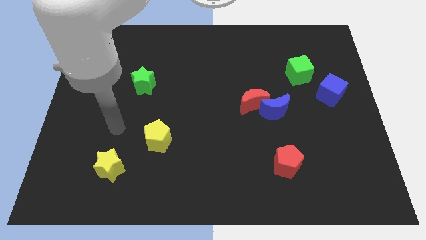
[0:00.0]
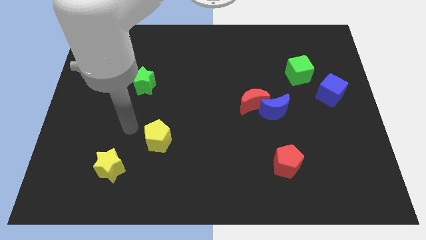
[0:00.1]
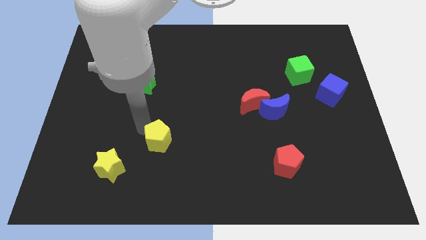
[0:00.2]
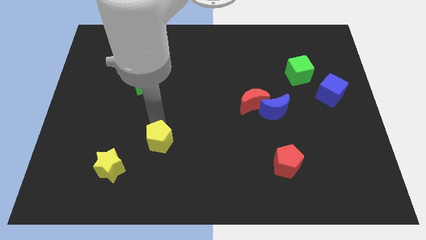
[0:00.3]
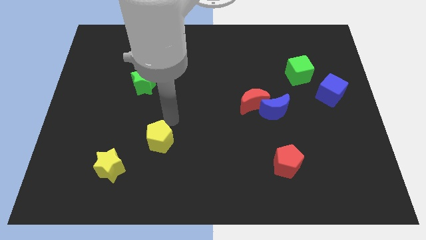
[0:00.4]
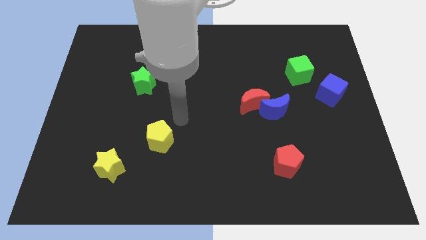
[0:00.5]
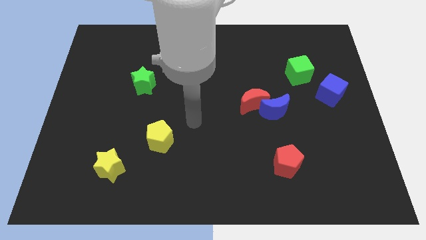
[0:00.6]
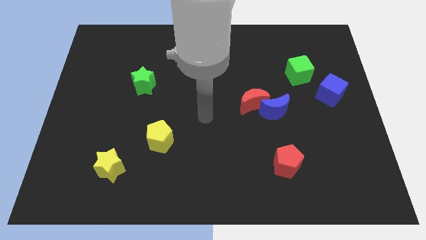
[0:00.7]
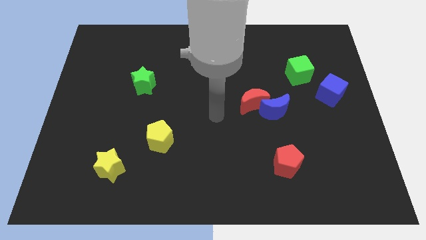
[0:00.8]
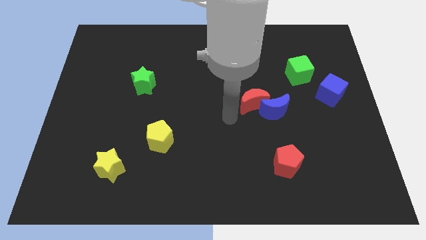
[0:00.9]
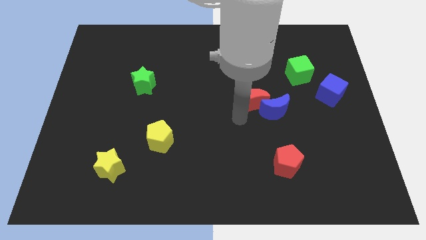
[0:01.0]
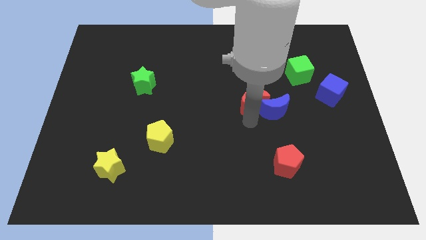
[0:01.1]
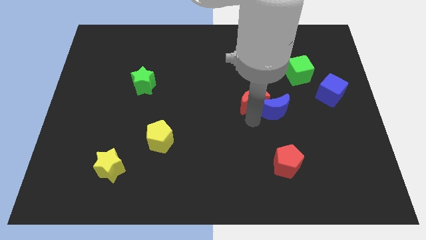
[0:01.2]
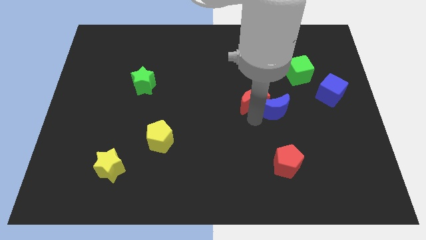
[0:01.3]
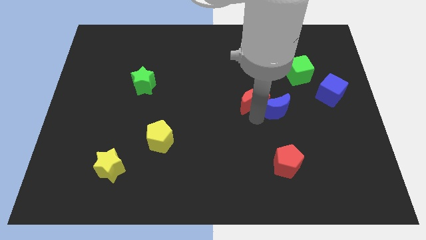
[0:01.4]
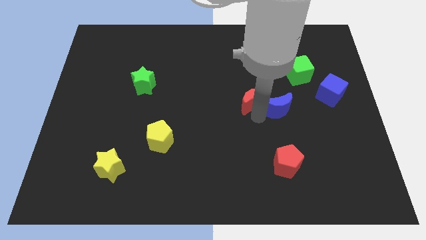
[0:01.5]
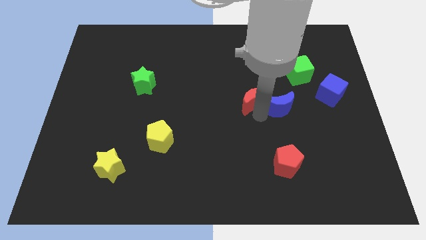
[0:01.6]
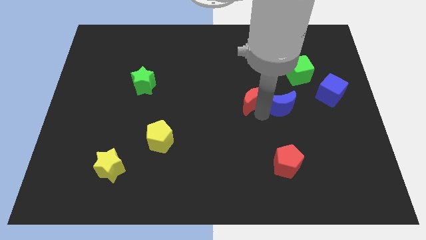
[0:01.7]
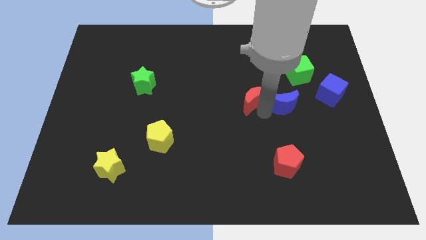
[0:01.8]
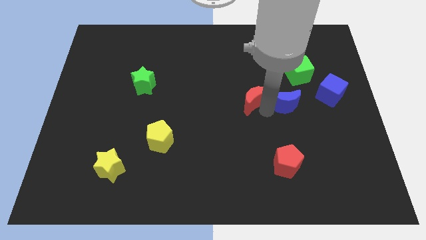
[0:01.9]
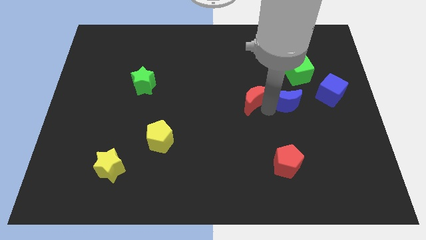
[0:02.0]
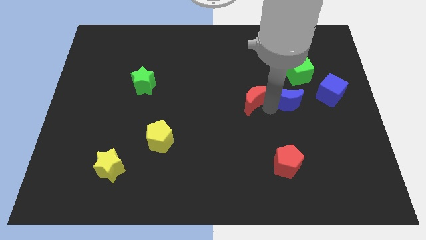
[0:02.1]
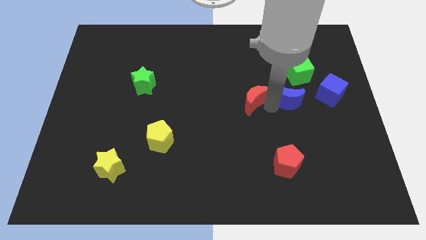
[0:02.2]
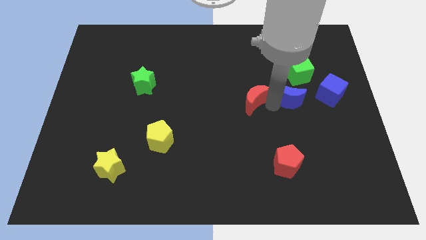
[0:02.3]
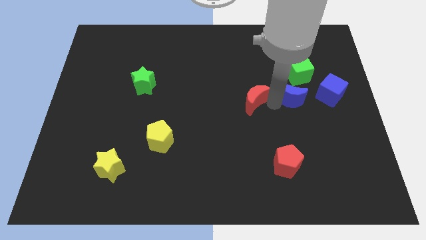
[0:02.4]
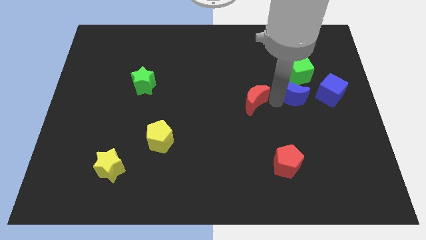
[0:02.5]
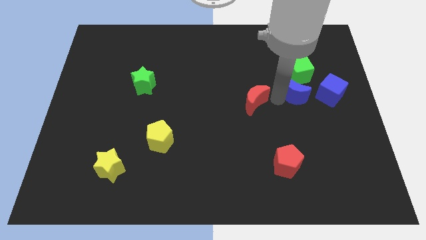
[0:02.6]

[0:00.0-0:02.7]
slightly move the blue moon up and to the right

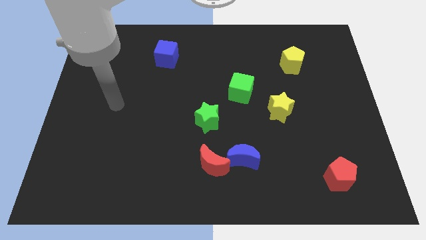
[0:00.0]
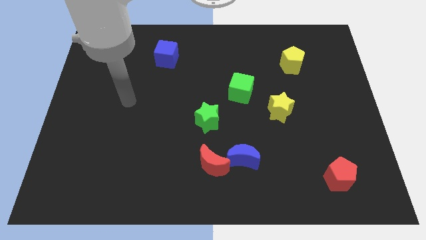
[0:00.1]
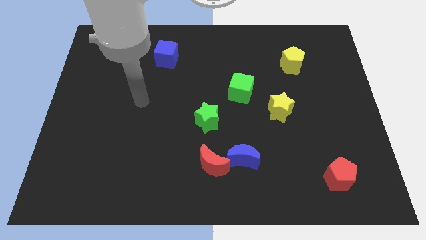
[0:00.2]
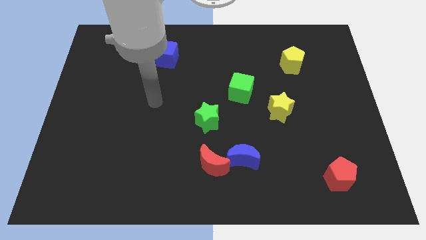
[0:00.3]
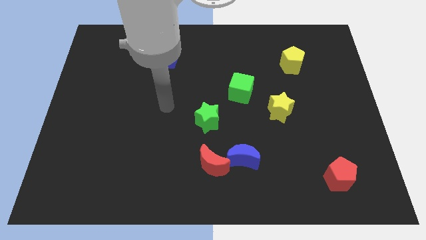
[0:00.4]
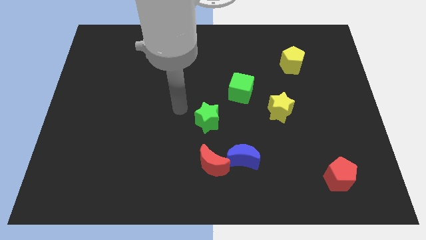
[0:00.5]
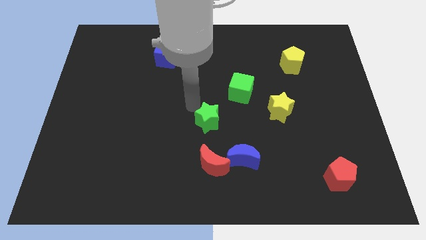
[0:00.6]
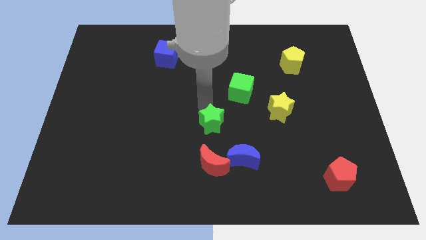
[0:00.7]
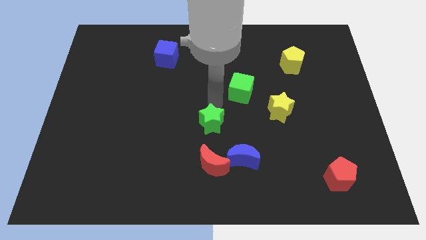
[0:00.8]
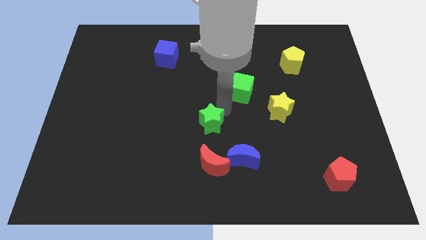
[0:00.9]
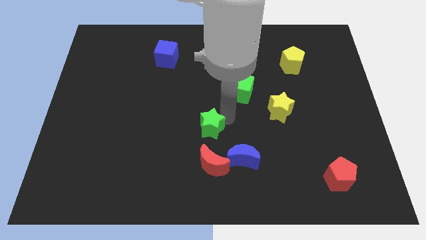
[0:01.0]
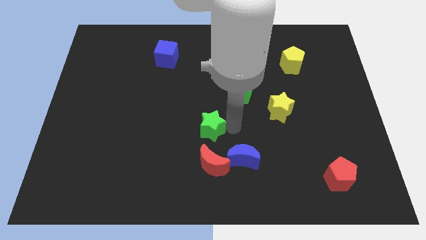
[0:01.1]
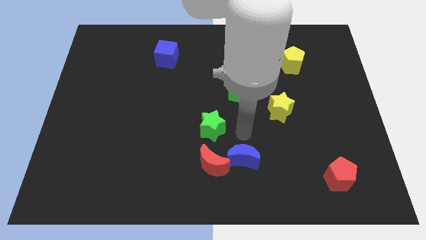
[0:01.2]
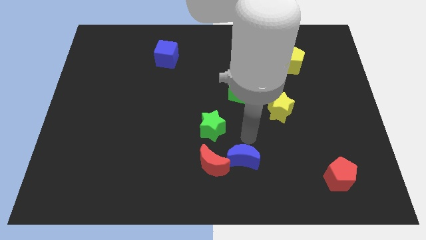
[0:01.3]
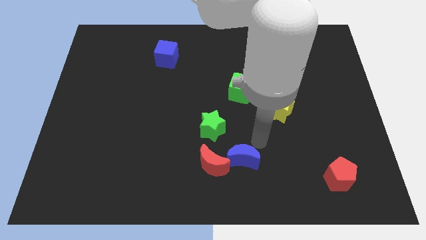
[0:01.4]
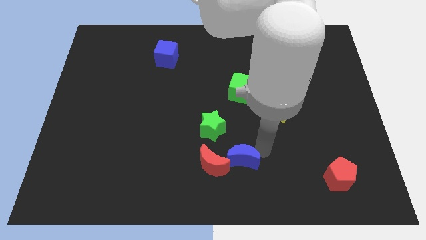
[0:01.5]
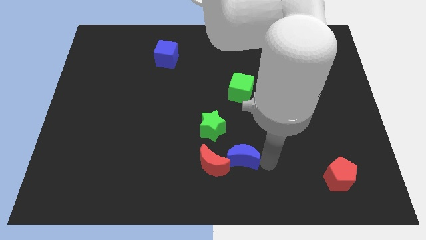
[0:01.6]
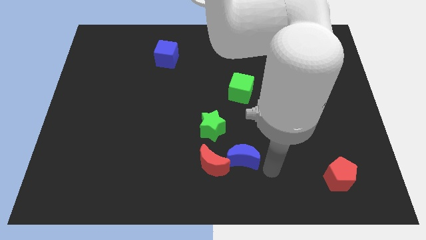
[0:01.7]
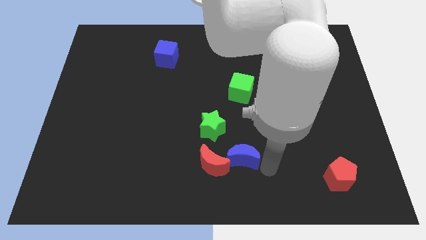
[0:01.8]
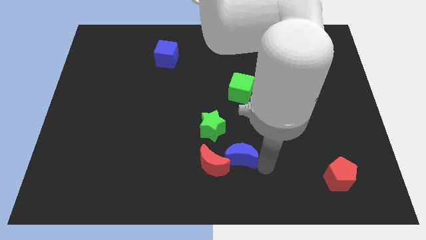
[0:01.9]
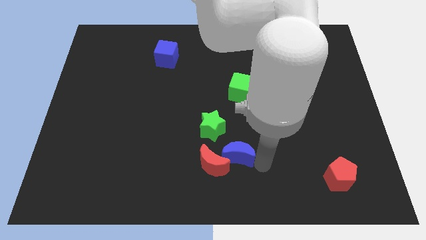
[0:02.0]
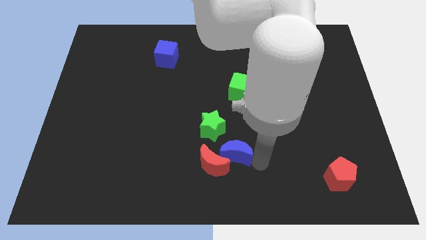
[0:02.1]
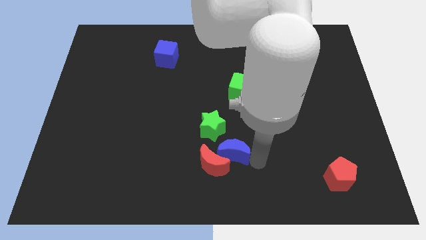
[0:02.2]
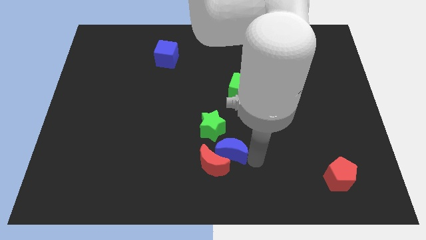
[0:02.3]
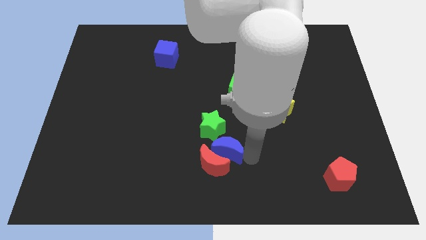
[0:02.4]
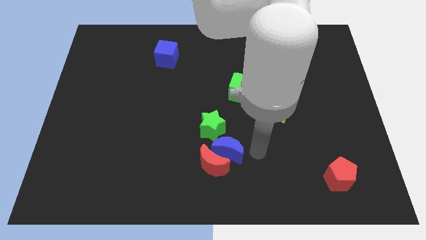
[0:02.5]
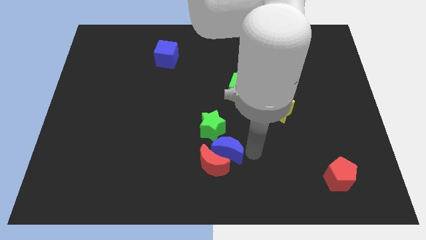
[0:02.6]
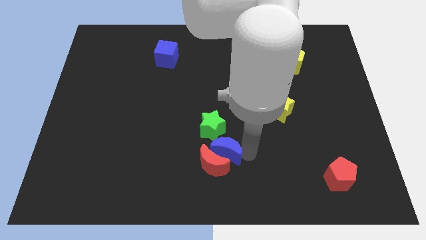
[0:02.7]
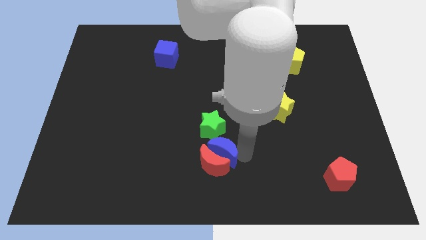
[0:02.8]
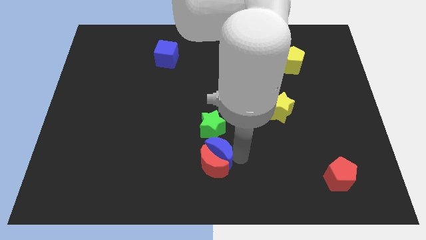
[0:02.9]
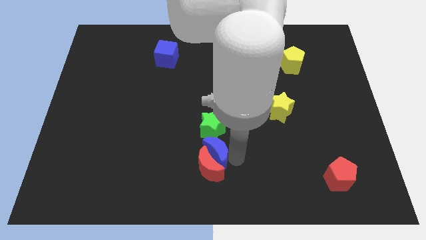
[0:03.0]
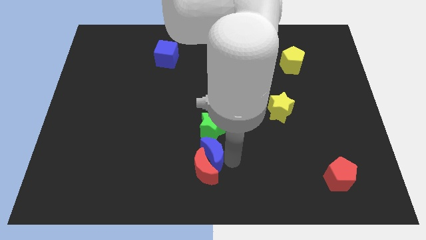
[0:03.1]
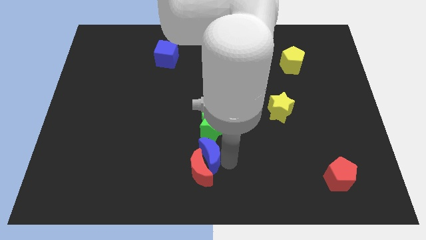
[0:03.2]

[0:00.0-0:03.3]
slightly slide the blue moon to the left

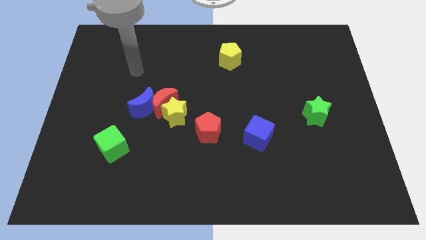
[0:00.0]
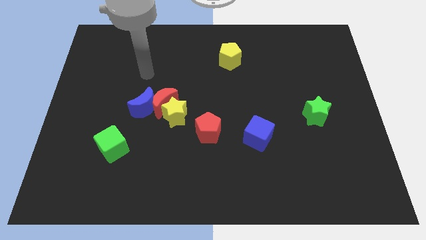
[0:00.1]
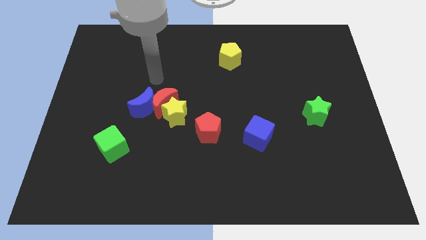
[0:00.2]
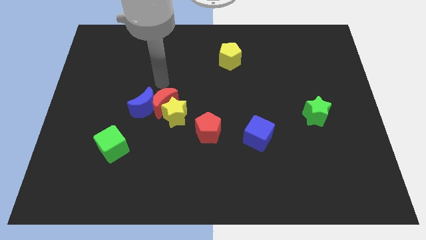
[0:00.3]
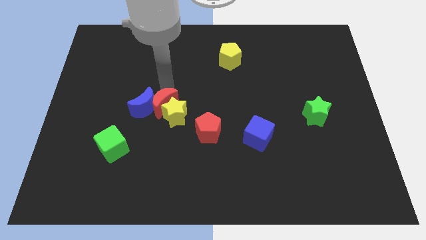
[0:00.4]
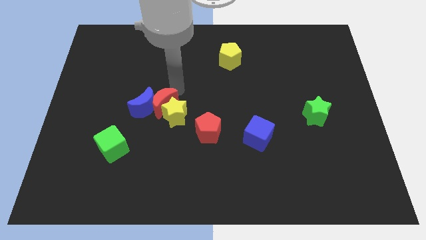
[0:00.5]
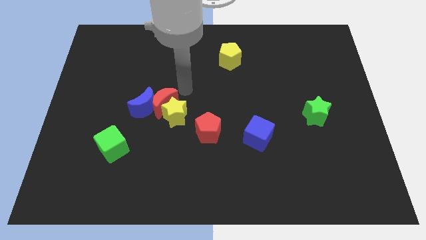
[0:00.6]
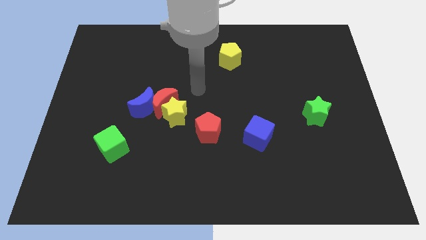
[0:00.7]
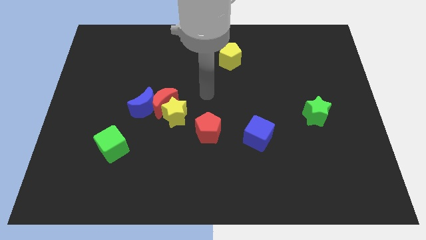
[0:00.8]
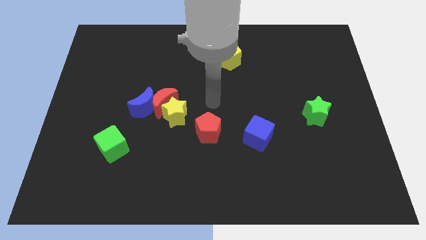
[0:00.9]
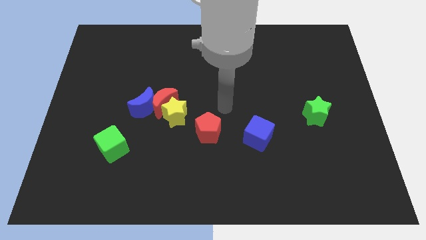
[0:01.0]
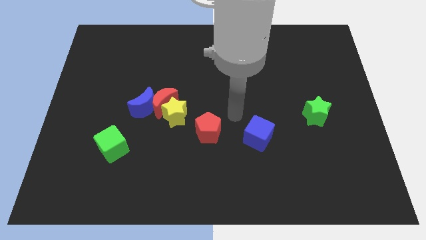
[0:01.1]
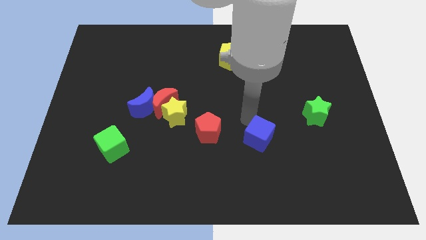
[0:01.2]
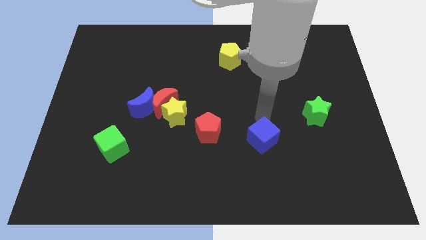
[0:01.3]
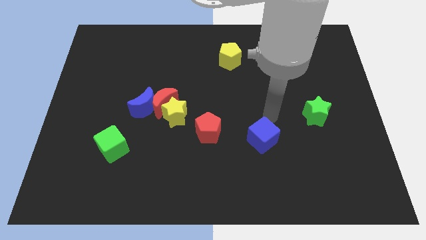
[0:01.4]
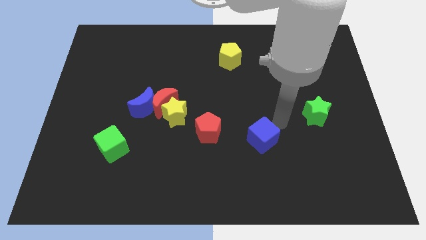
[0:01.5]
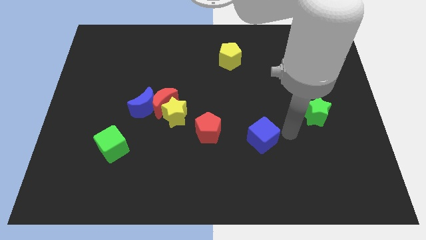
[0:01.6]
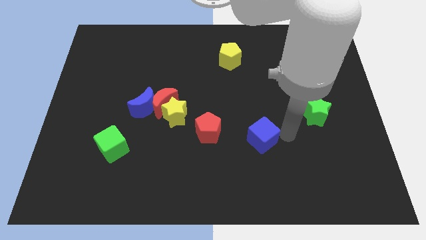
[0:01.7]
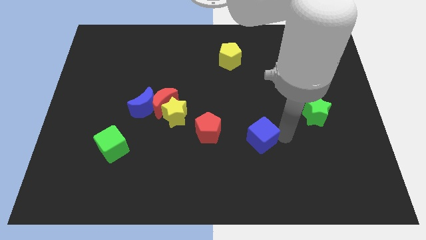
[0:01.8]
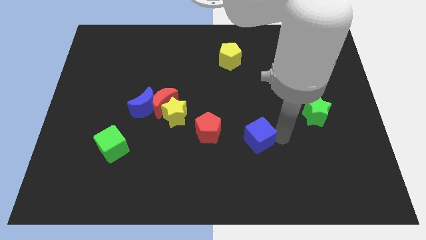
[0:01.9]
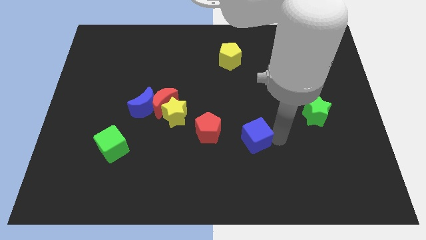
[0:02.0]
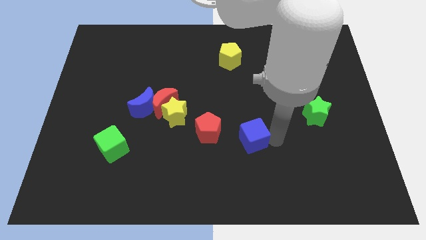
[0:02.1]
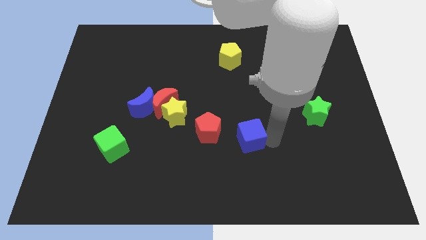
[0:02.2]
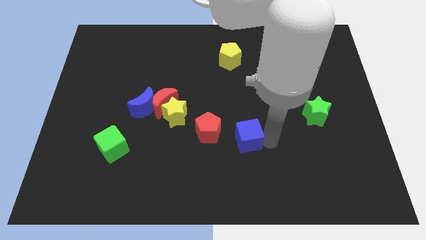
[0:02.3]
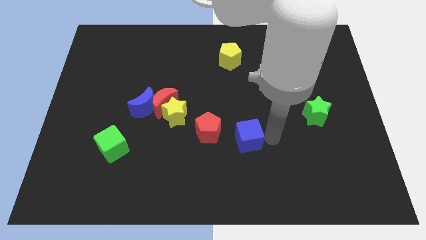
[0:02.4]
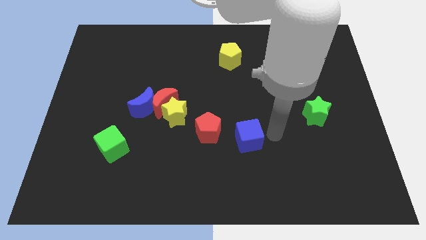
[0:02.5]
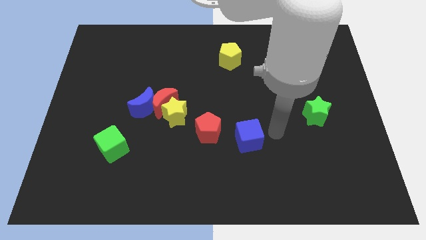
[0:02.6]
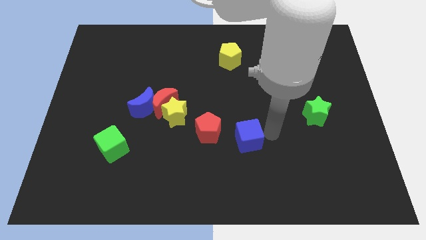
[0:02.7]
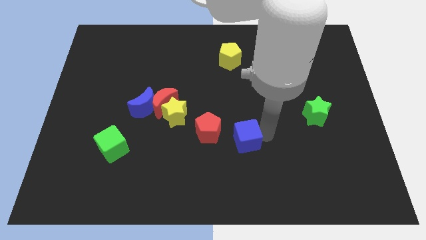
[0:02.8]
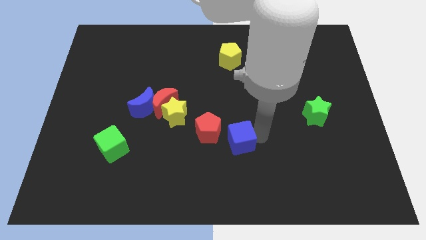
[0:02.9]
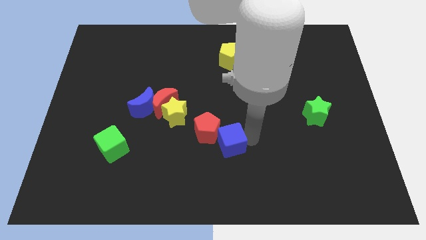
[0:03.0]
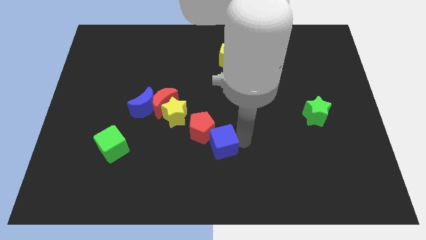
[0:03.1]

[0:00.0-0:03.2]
push the blue cube to the left a little
